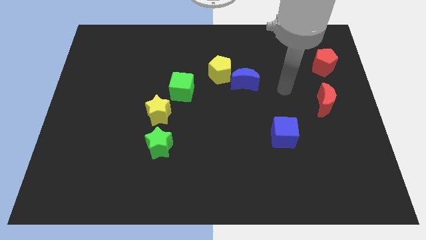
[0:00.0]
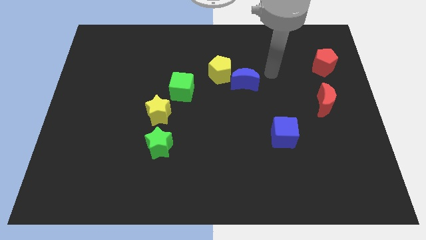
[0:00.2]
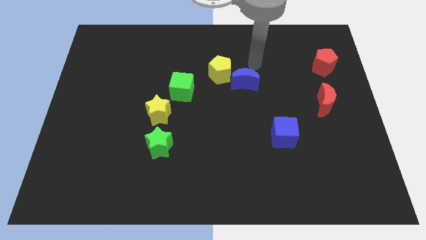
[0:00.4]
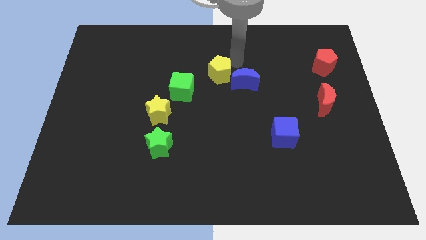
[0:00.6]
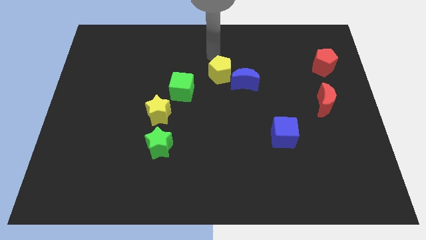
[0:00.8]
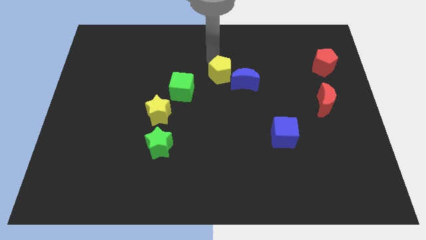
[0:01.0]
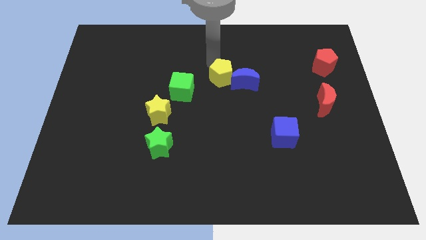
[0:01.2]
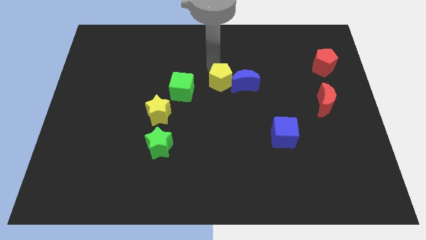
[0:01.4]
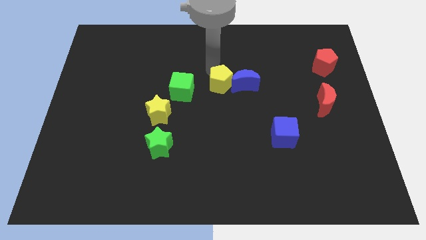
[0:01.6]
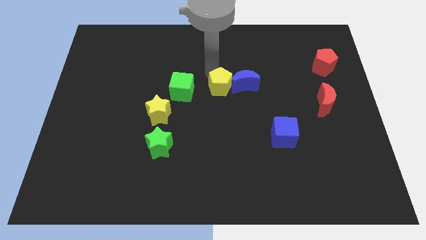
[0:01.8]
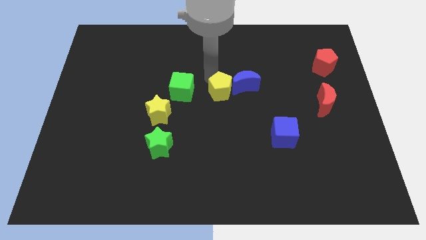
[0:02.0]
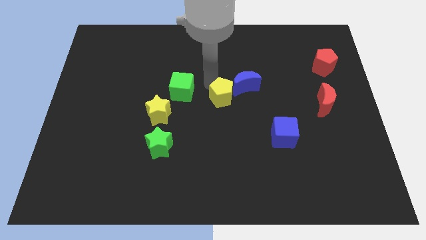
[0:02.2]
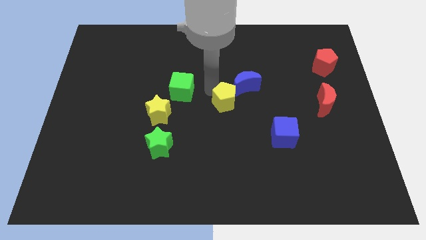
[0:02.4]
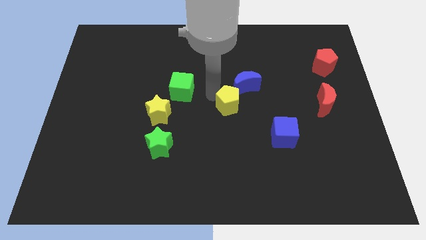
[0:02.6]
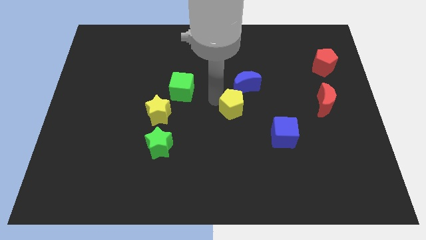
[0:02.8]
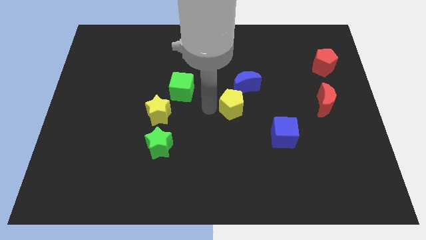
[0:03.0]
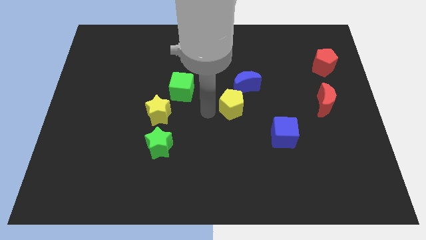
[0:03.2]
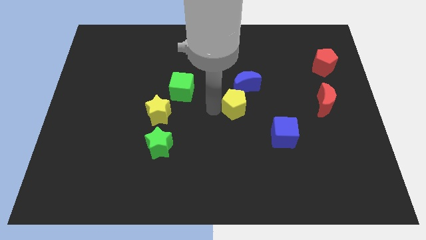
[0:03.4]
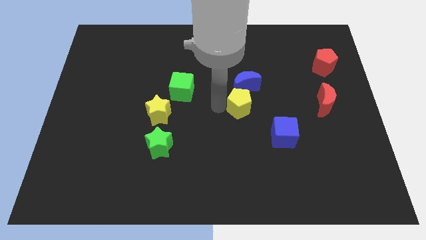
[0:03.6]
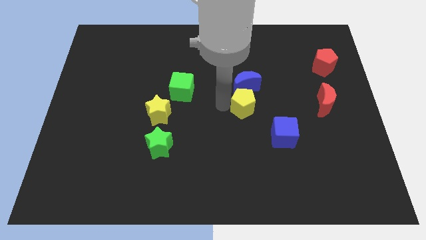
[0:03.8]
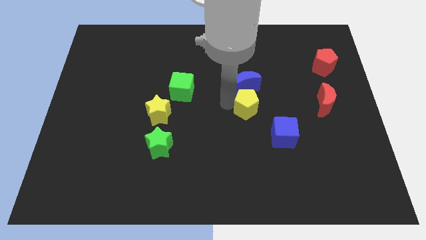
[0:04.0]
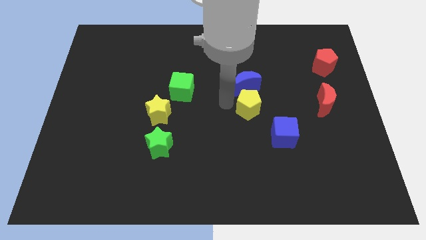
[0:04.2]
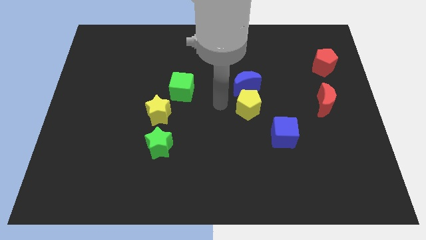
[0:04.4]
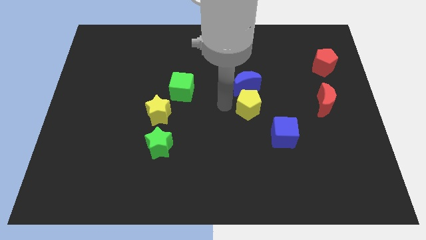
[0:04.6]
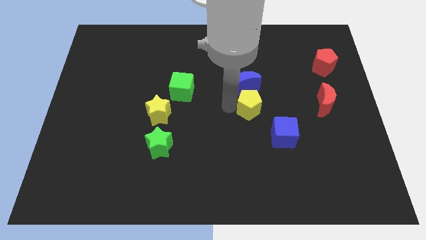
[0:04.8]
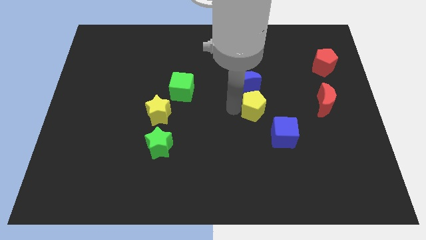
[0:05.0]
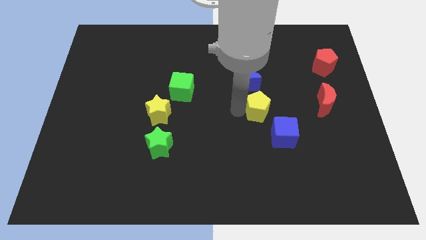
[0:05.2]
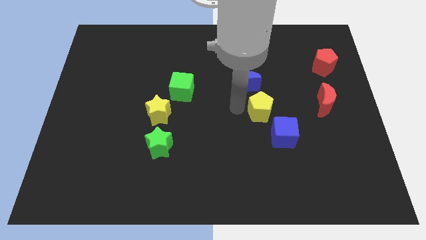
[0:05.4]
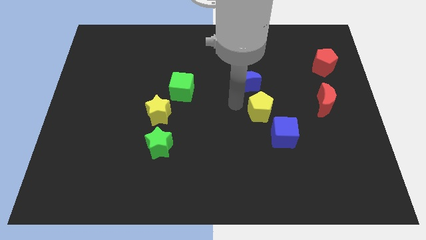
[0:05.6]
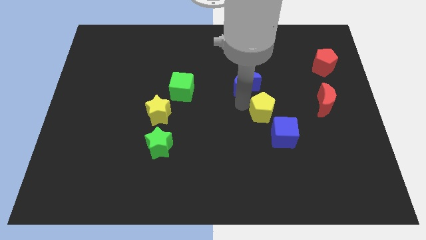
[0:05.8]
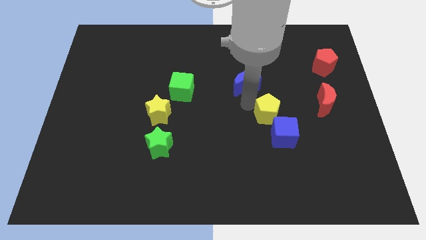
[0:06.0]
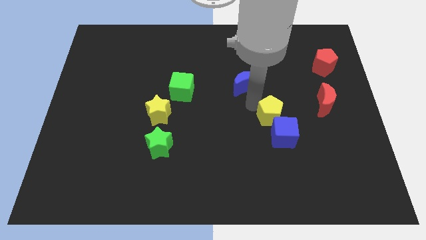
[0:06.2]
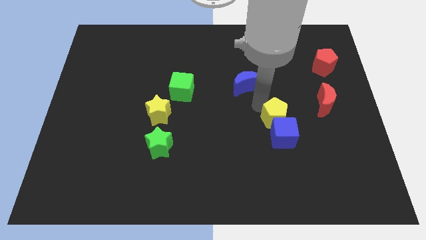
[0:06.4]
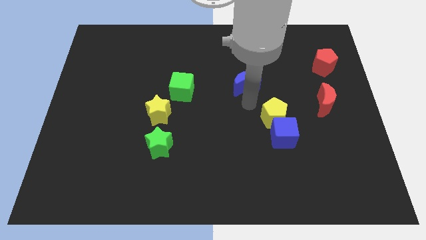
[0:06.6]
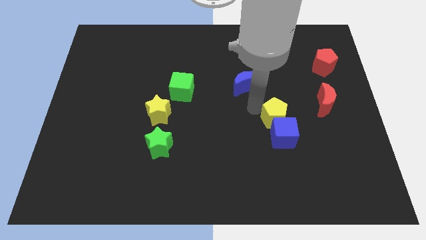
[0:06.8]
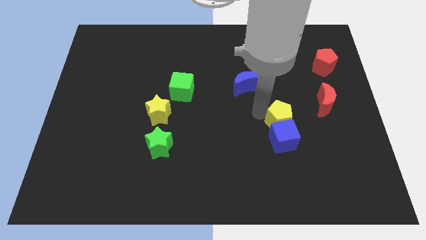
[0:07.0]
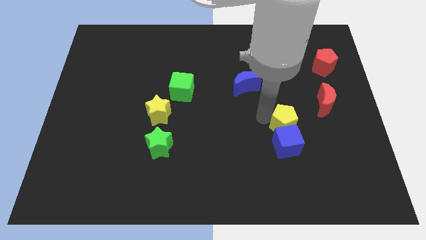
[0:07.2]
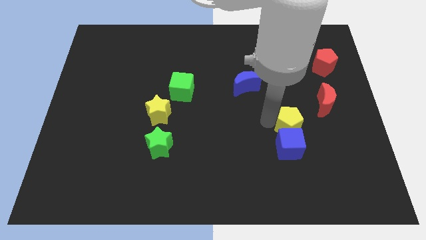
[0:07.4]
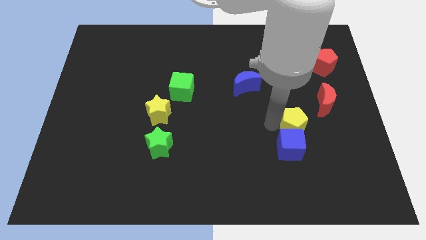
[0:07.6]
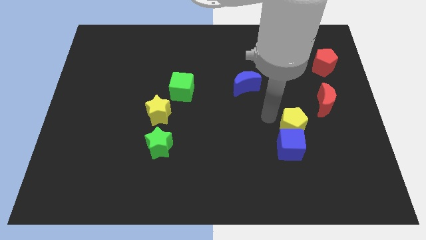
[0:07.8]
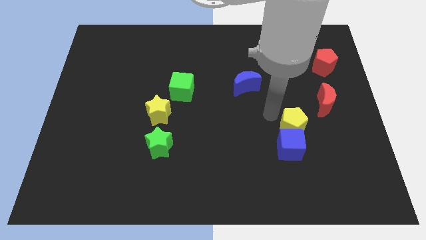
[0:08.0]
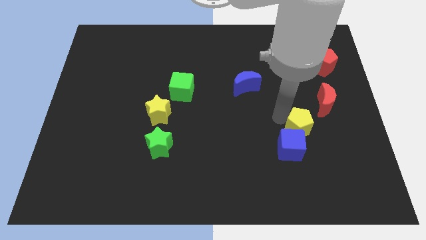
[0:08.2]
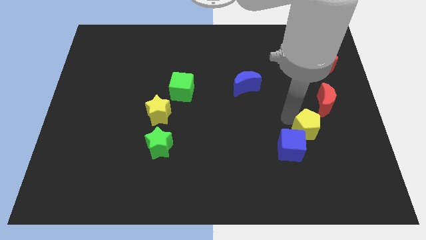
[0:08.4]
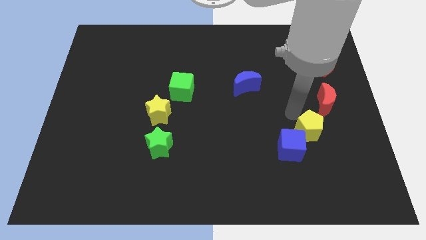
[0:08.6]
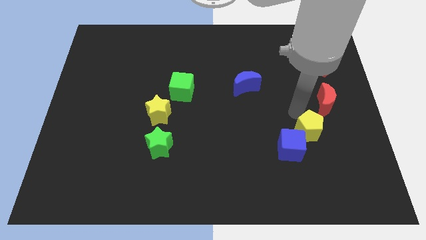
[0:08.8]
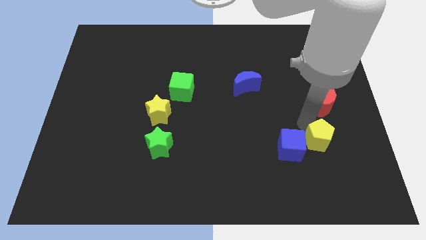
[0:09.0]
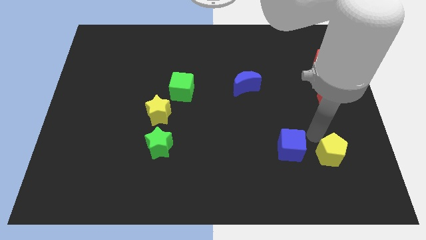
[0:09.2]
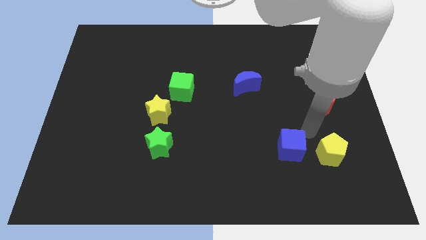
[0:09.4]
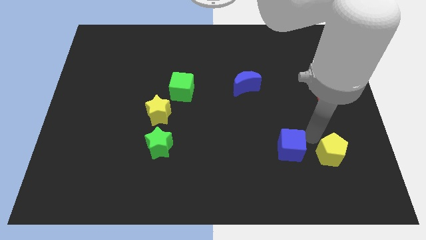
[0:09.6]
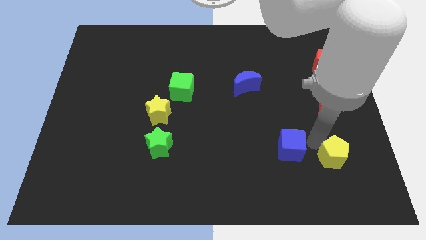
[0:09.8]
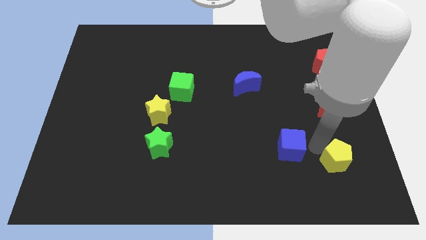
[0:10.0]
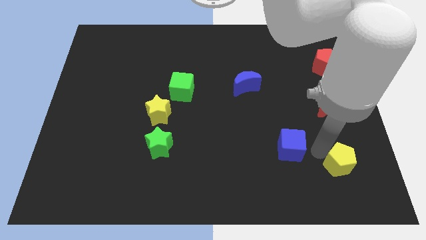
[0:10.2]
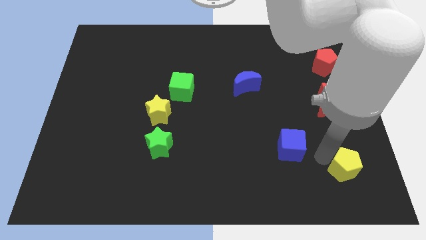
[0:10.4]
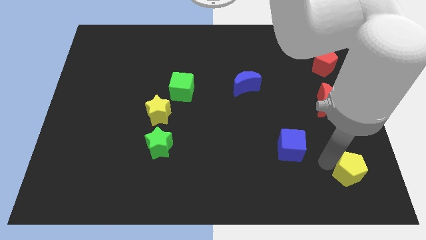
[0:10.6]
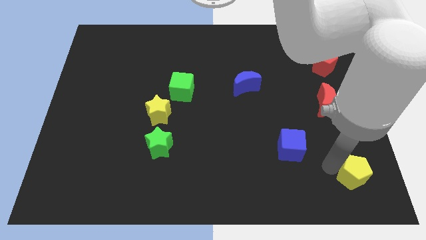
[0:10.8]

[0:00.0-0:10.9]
move the yellow pentagon to the bottom right

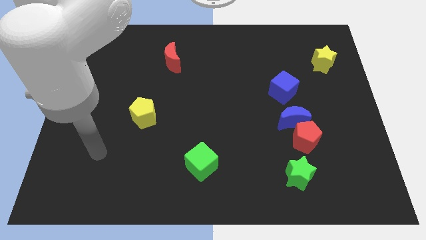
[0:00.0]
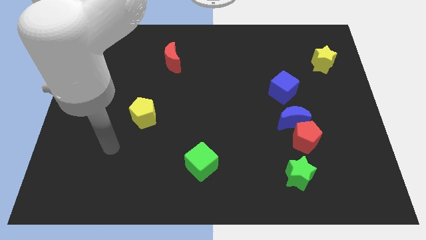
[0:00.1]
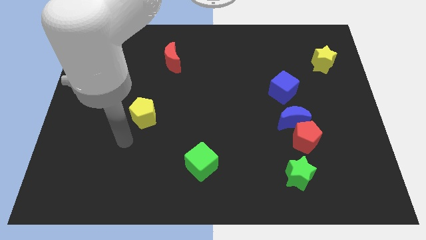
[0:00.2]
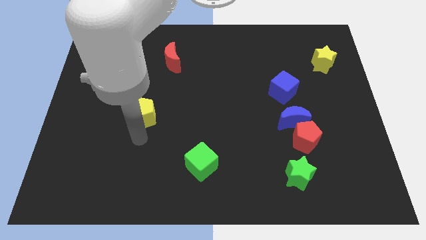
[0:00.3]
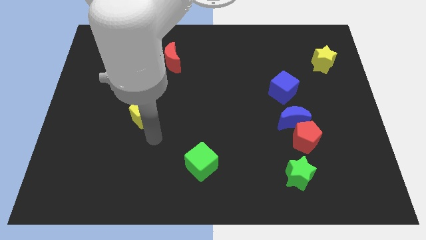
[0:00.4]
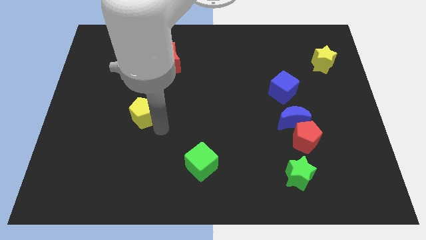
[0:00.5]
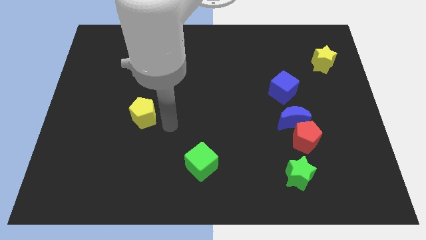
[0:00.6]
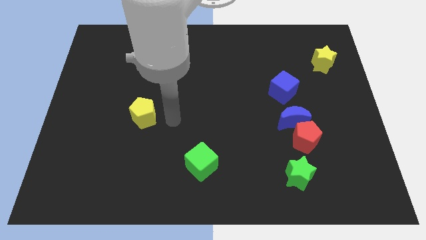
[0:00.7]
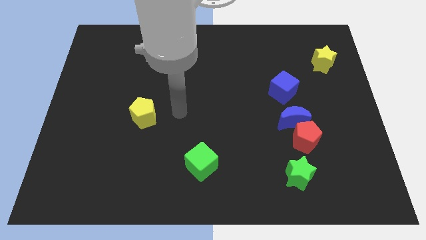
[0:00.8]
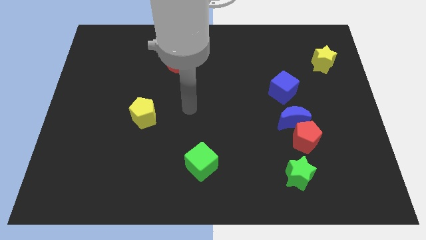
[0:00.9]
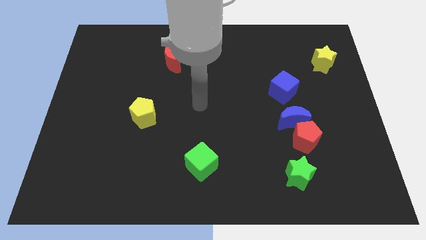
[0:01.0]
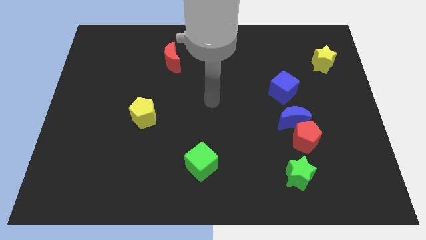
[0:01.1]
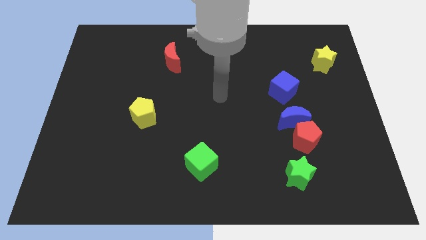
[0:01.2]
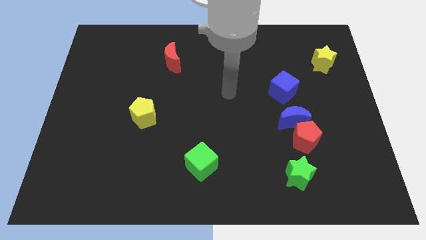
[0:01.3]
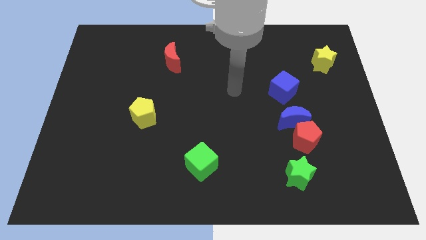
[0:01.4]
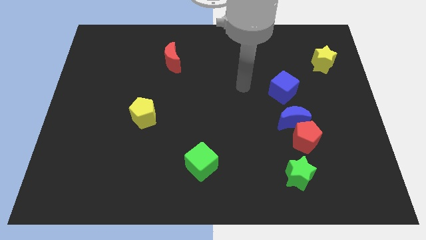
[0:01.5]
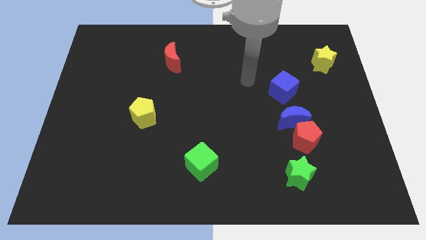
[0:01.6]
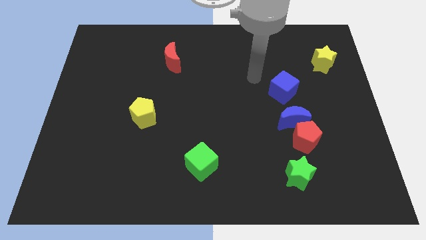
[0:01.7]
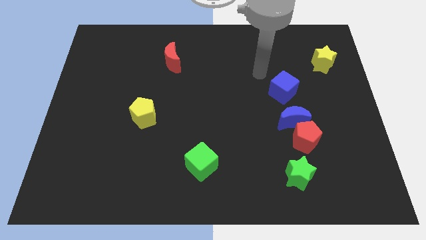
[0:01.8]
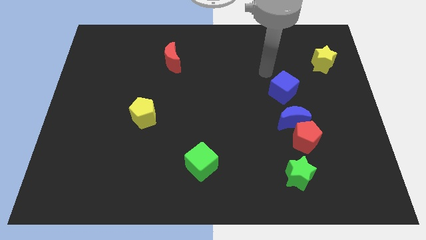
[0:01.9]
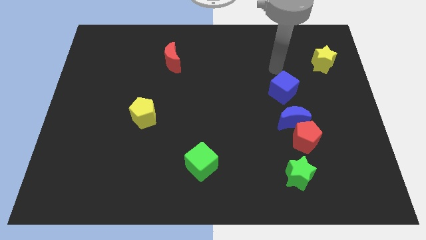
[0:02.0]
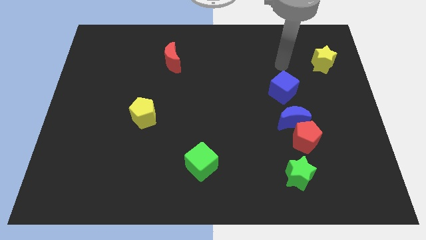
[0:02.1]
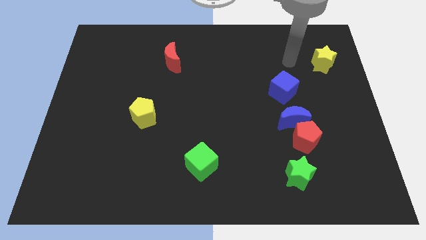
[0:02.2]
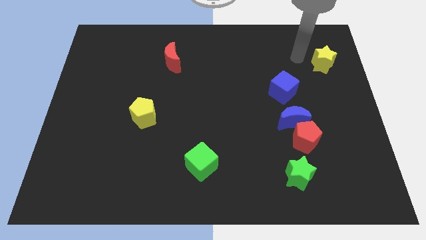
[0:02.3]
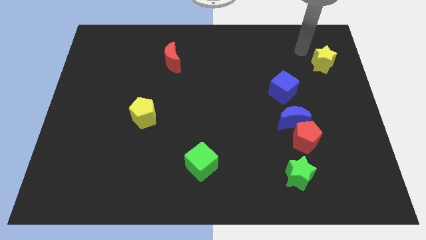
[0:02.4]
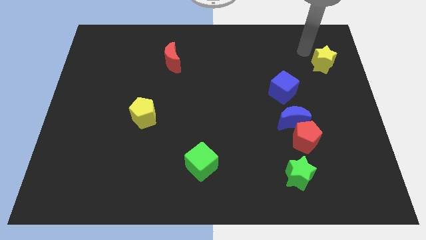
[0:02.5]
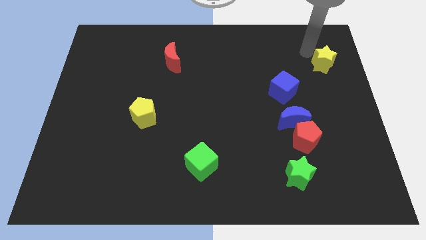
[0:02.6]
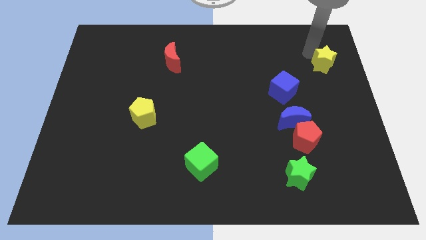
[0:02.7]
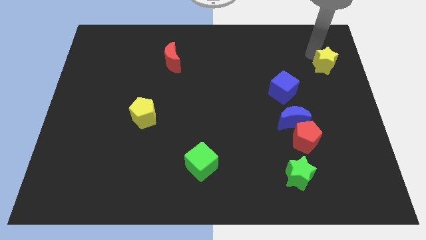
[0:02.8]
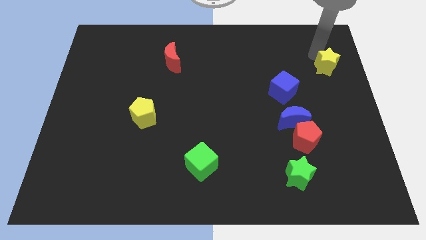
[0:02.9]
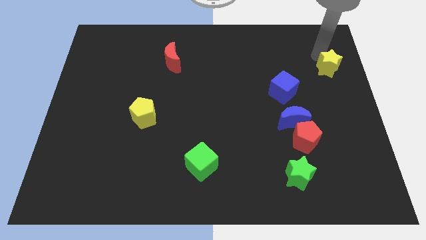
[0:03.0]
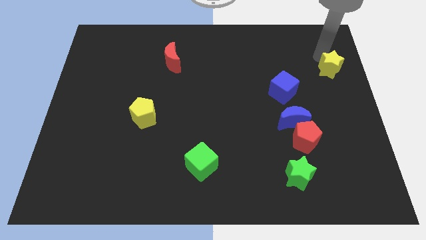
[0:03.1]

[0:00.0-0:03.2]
move the yellow star to the right side
